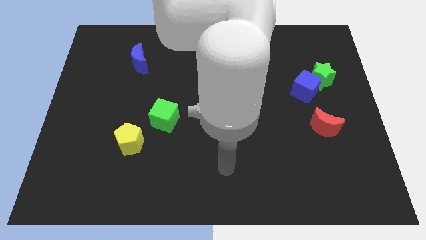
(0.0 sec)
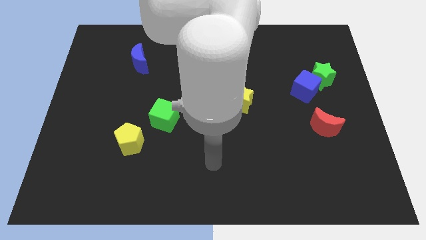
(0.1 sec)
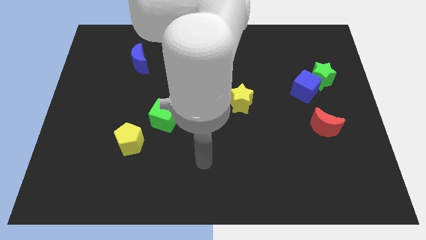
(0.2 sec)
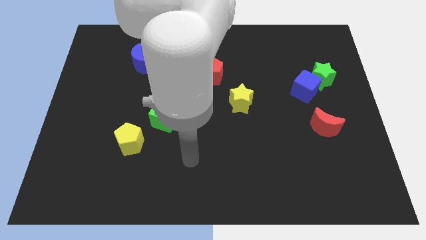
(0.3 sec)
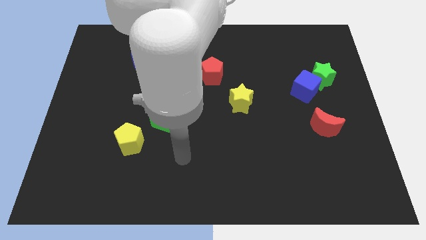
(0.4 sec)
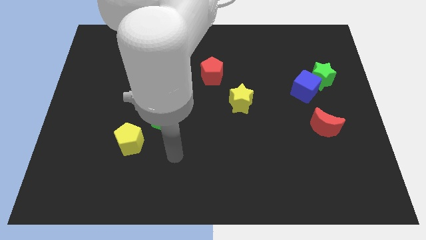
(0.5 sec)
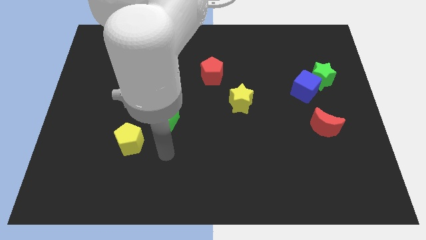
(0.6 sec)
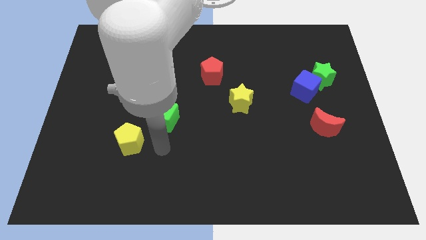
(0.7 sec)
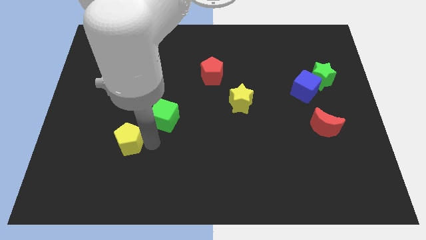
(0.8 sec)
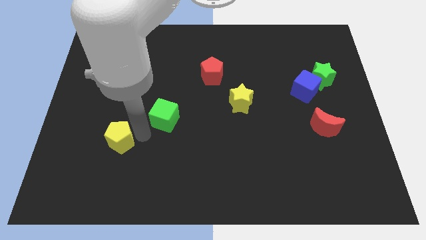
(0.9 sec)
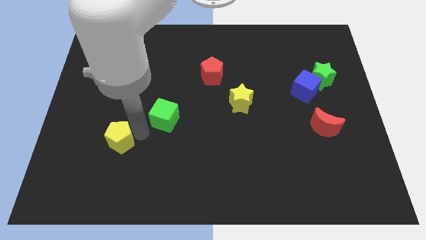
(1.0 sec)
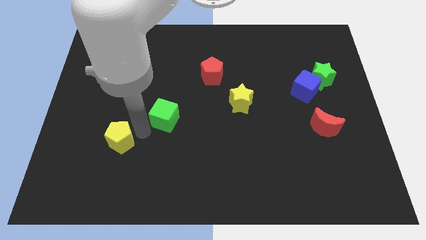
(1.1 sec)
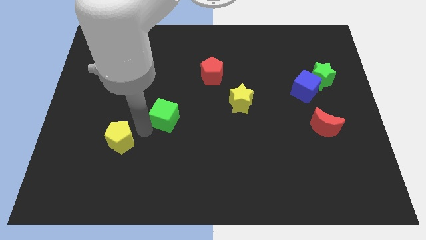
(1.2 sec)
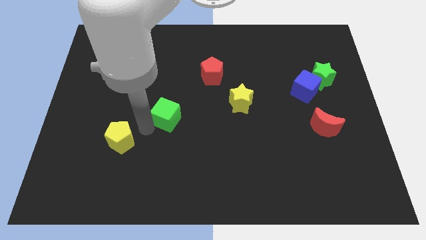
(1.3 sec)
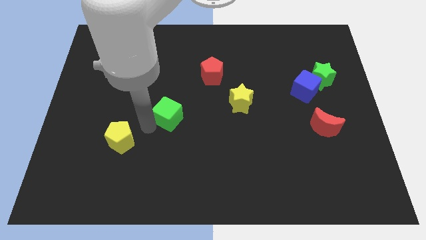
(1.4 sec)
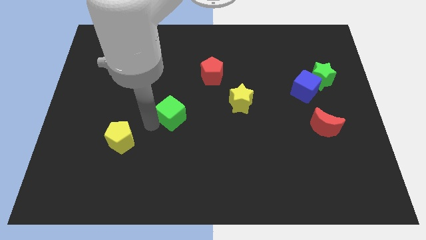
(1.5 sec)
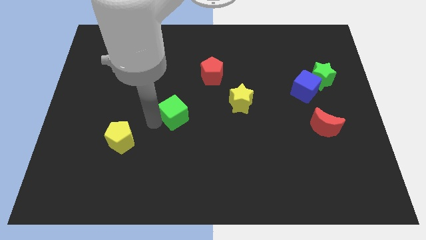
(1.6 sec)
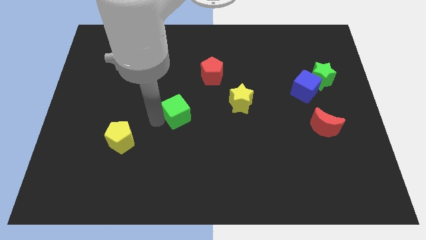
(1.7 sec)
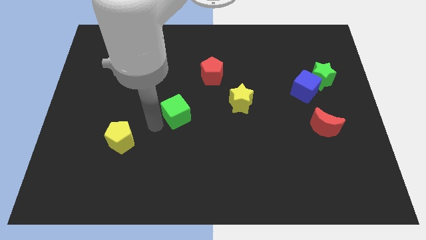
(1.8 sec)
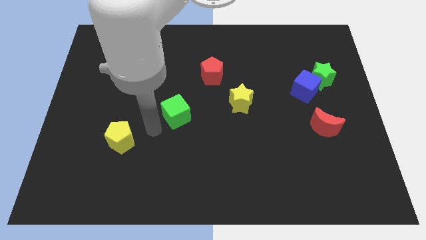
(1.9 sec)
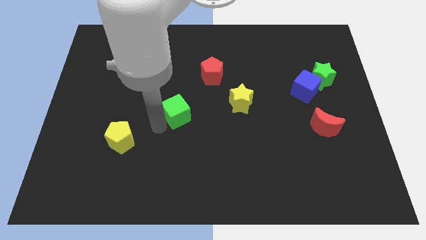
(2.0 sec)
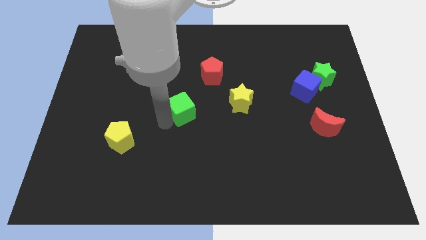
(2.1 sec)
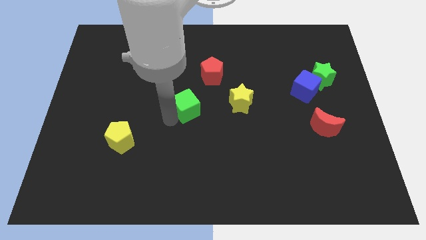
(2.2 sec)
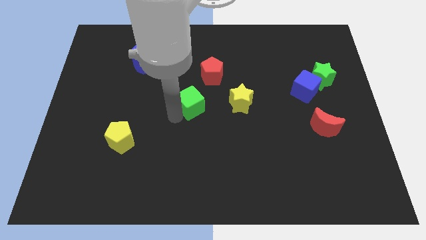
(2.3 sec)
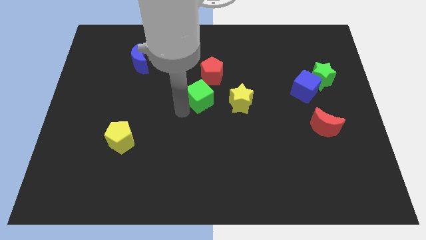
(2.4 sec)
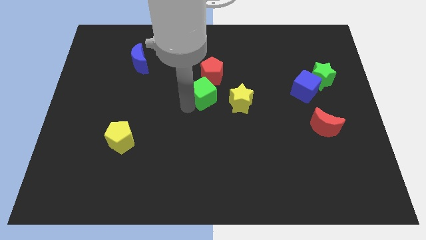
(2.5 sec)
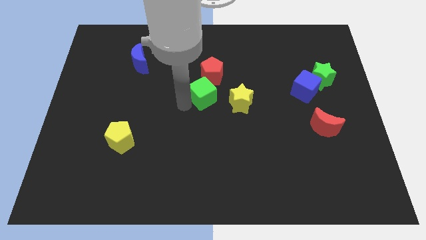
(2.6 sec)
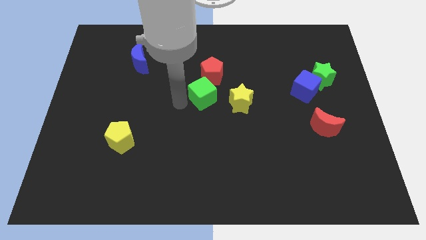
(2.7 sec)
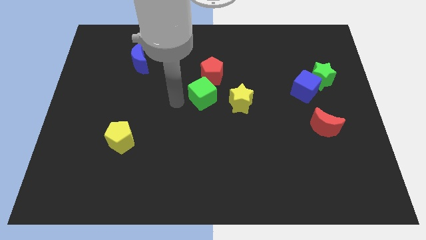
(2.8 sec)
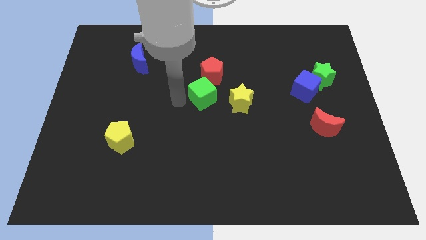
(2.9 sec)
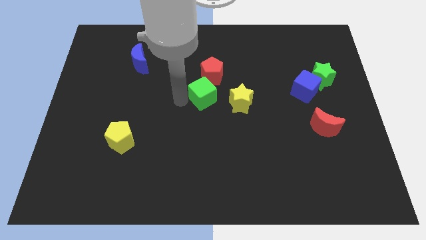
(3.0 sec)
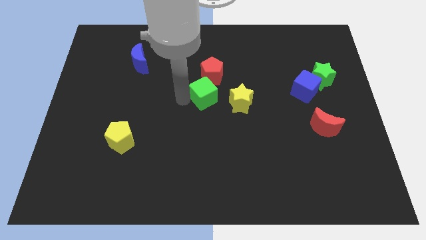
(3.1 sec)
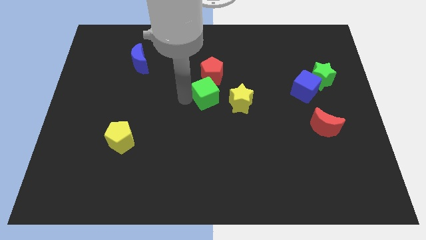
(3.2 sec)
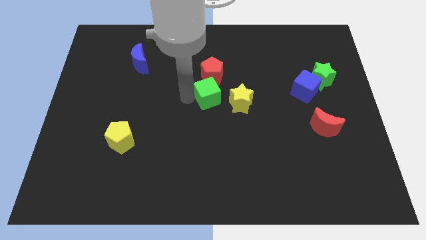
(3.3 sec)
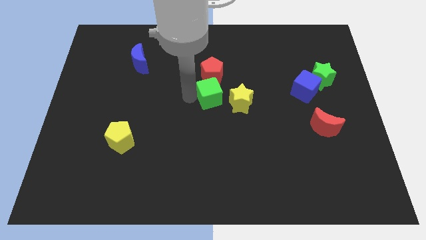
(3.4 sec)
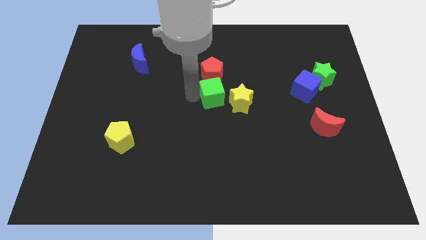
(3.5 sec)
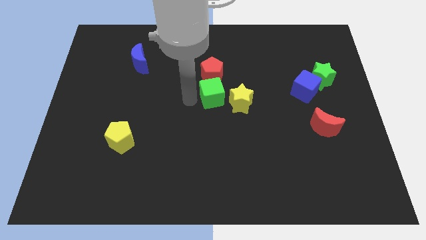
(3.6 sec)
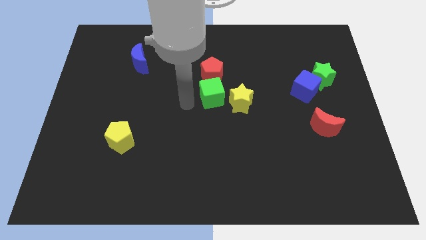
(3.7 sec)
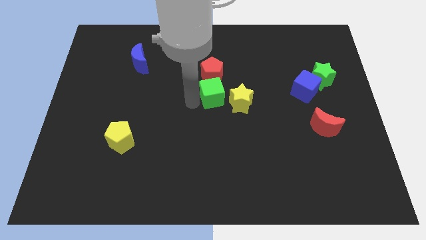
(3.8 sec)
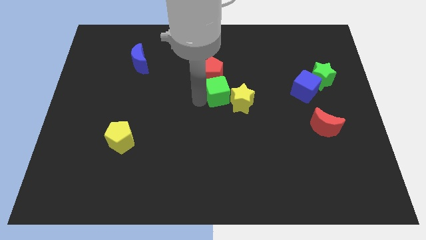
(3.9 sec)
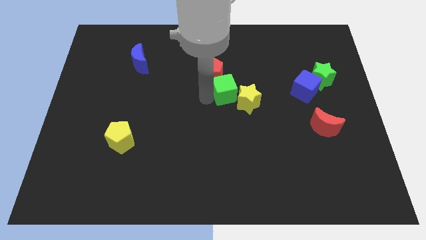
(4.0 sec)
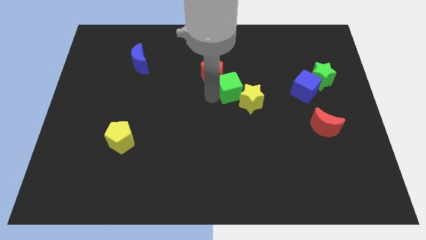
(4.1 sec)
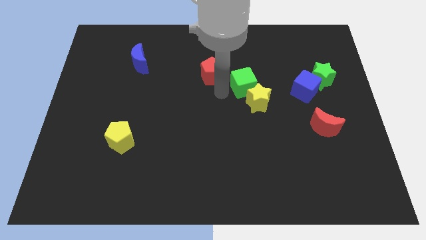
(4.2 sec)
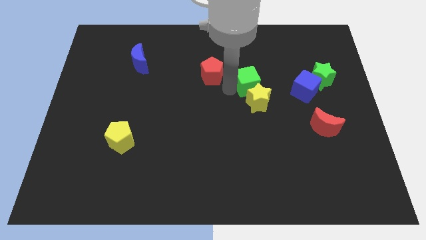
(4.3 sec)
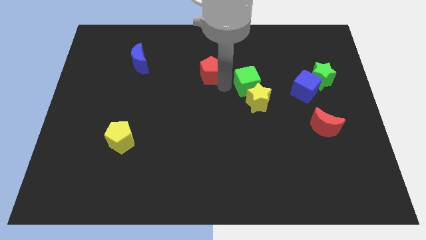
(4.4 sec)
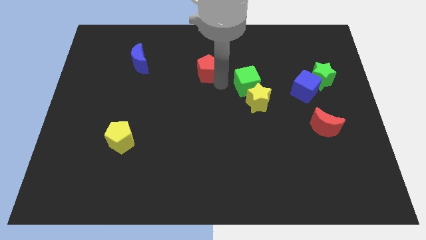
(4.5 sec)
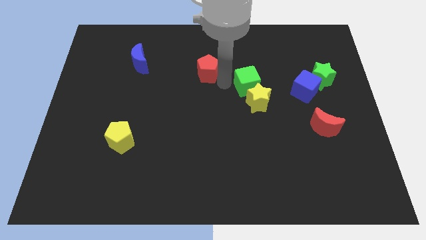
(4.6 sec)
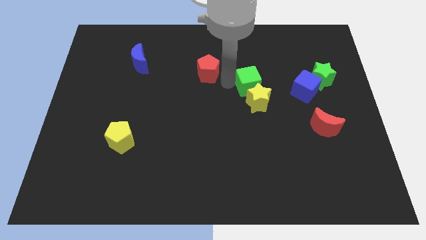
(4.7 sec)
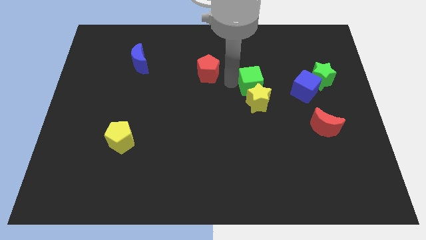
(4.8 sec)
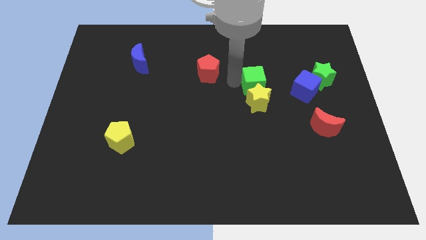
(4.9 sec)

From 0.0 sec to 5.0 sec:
slide the green cube to the top right side of the yellow star
